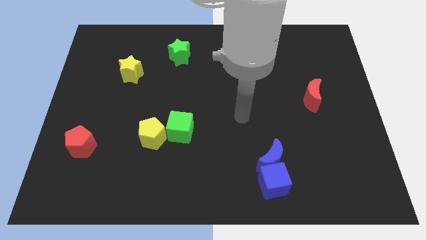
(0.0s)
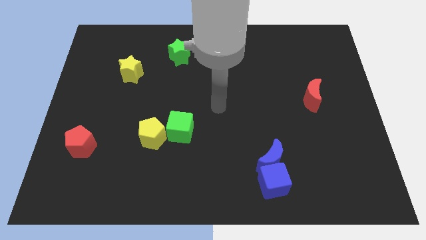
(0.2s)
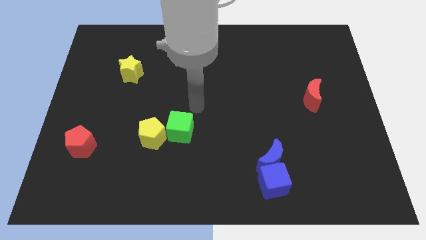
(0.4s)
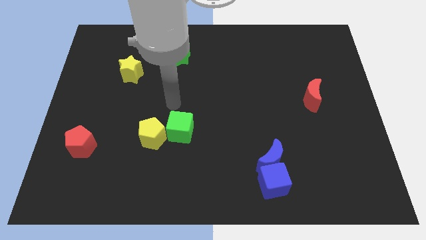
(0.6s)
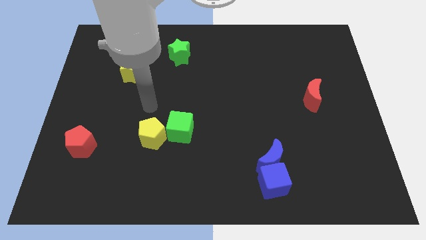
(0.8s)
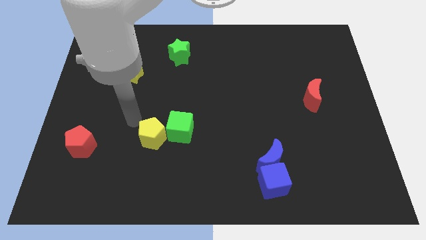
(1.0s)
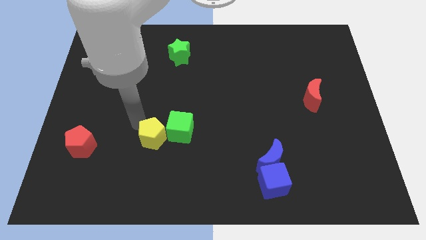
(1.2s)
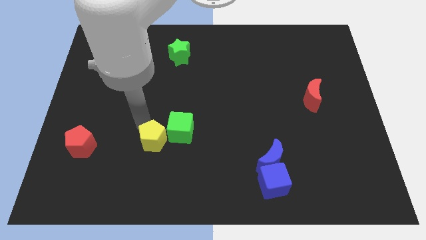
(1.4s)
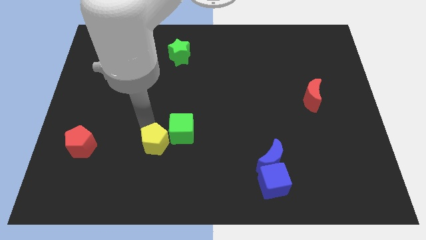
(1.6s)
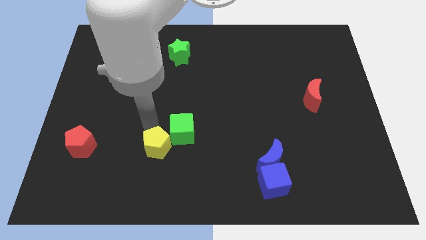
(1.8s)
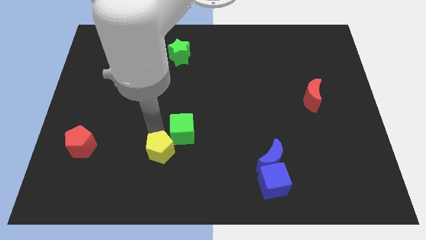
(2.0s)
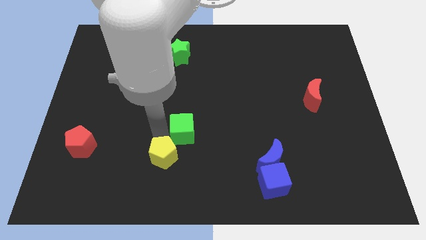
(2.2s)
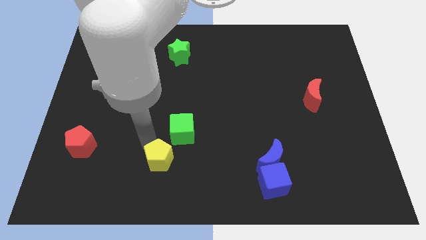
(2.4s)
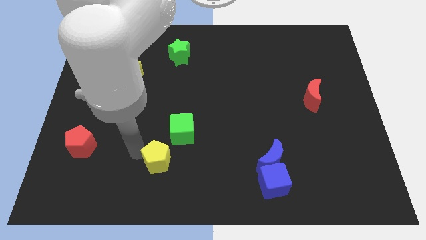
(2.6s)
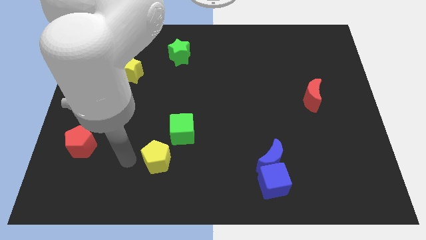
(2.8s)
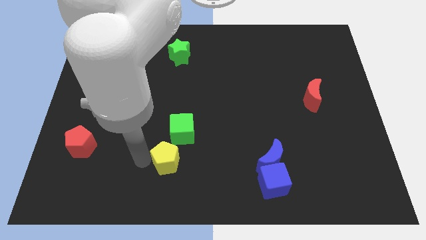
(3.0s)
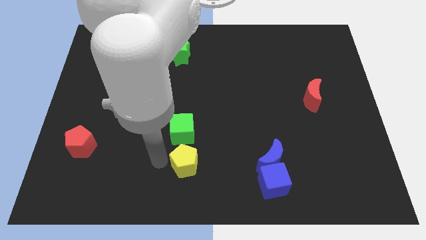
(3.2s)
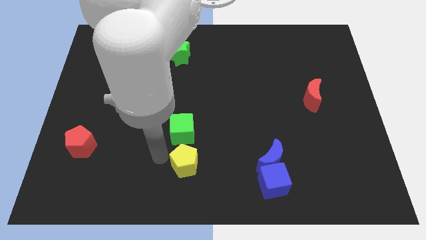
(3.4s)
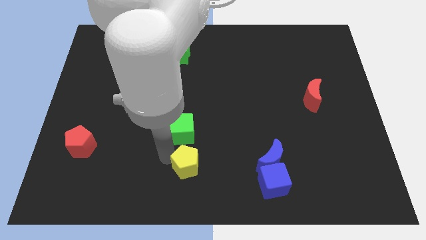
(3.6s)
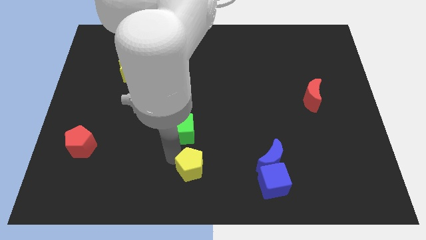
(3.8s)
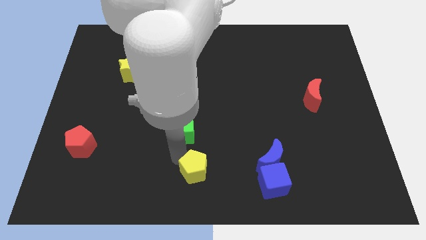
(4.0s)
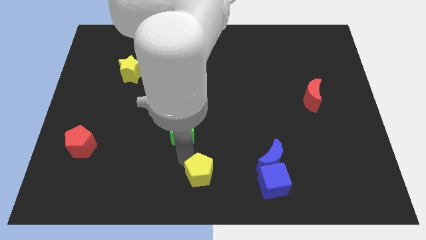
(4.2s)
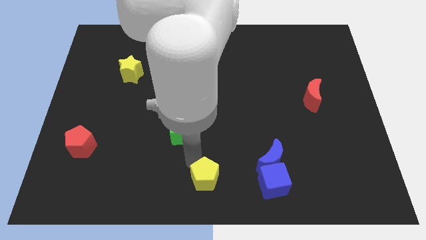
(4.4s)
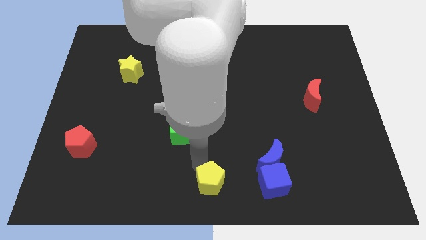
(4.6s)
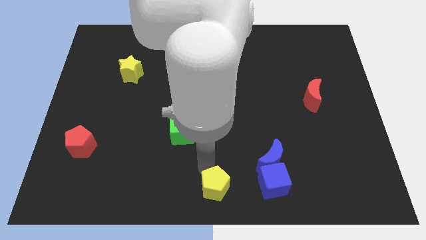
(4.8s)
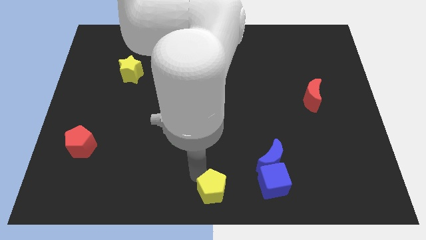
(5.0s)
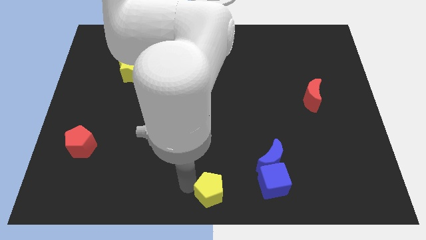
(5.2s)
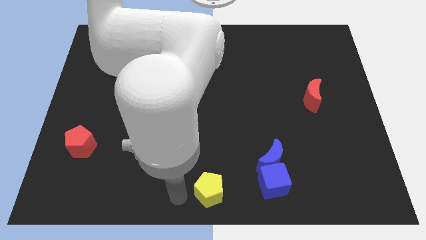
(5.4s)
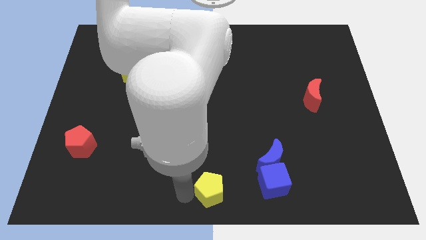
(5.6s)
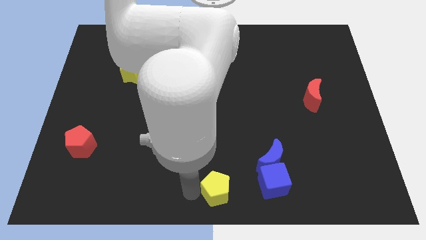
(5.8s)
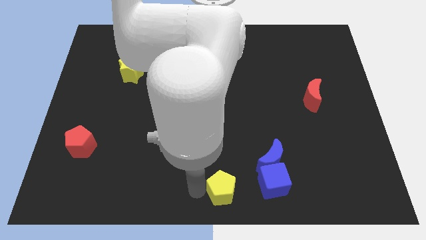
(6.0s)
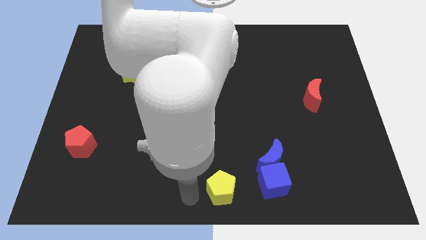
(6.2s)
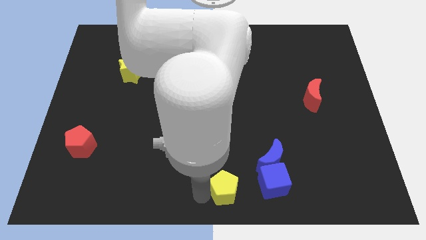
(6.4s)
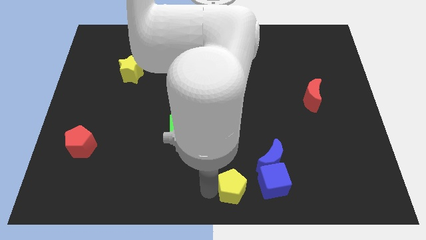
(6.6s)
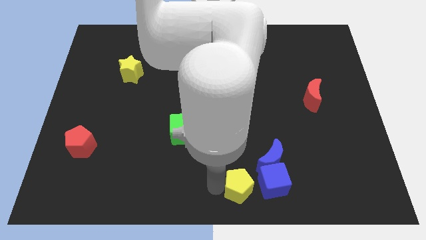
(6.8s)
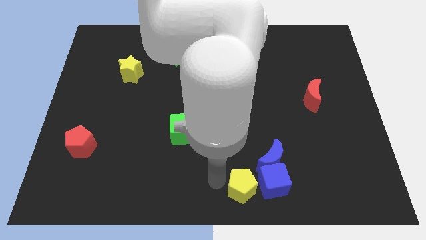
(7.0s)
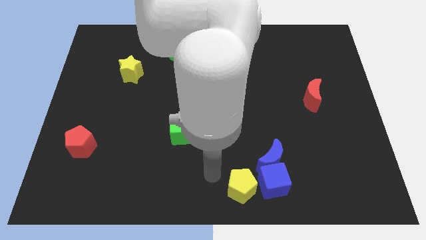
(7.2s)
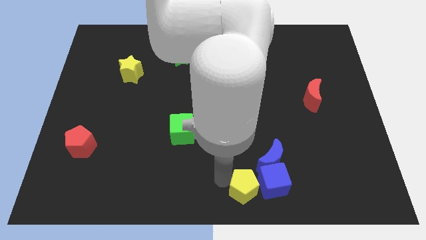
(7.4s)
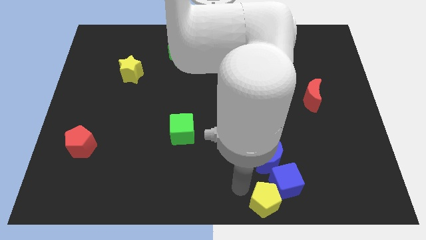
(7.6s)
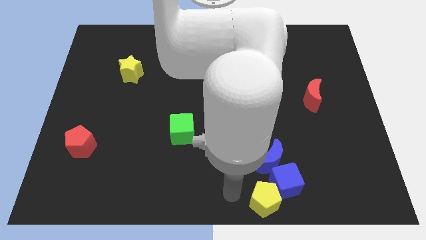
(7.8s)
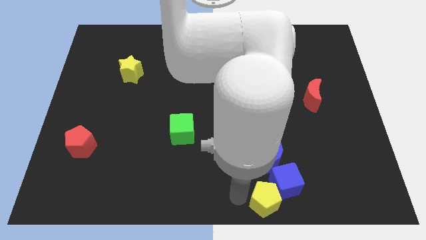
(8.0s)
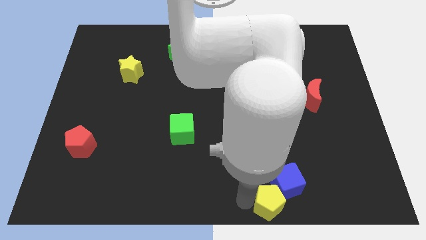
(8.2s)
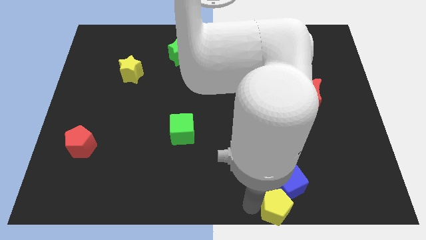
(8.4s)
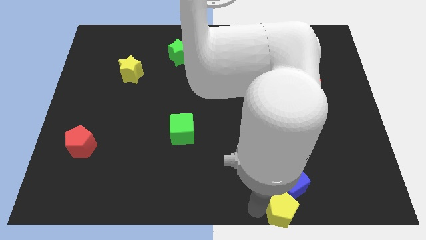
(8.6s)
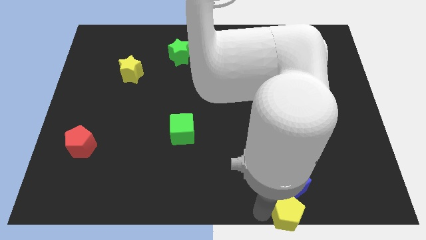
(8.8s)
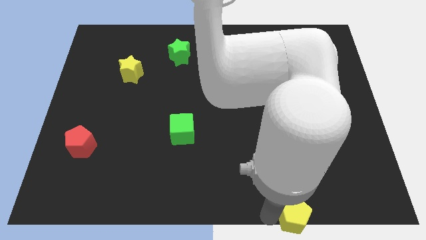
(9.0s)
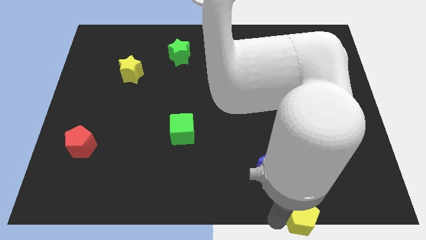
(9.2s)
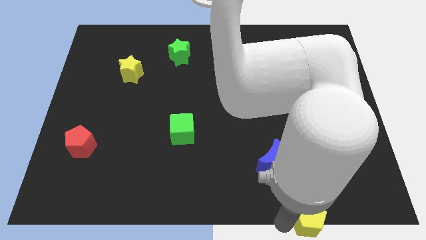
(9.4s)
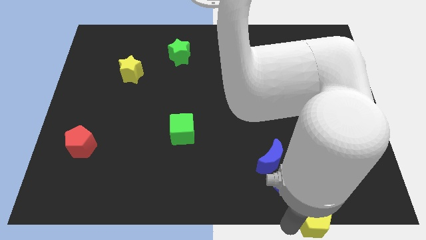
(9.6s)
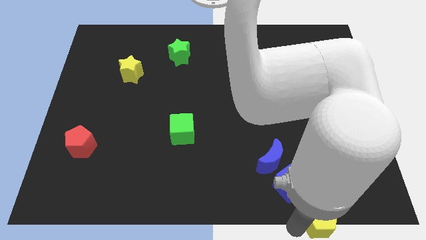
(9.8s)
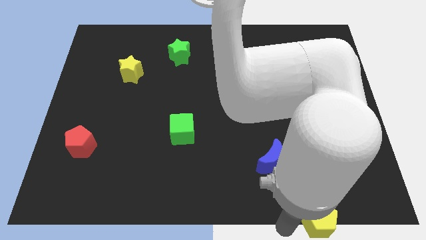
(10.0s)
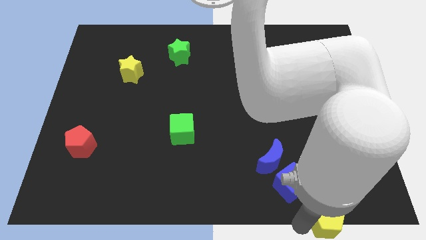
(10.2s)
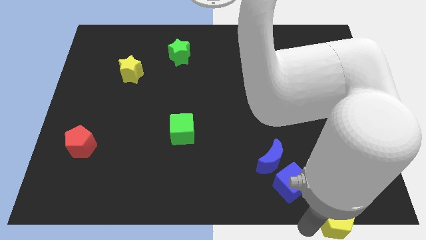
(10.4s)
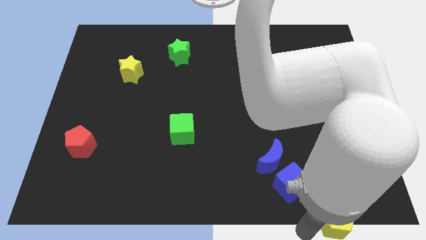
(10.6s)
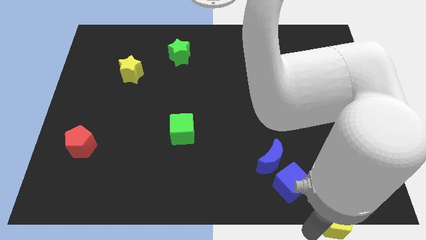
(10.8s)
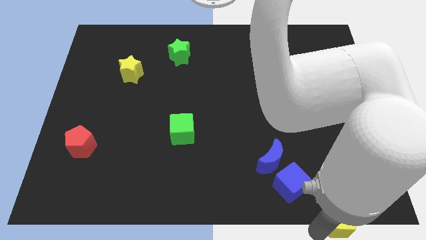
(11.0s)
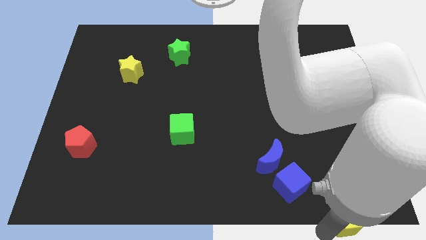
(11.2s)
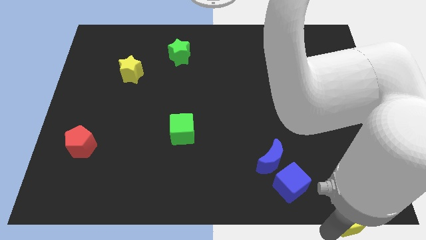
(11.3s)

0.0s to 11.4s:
move the yellow pentagon to the bottom right
